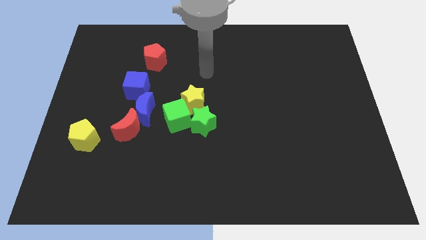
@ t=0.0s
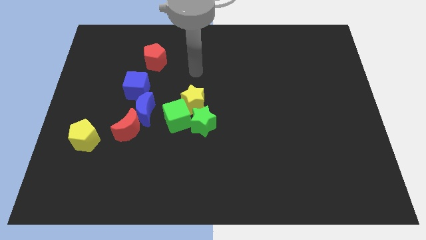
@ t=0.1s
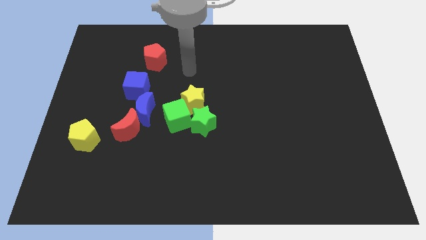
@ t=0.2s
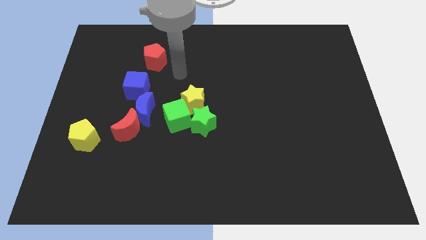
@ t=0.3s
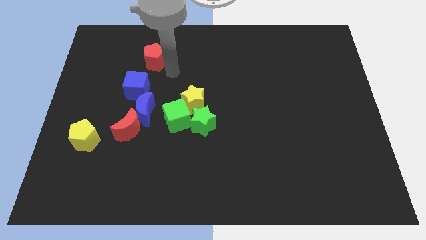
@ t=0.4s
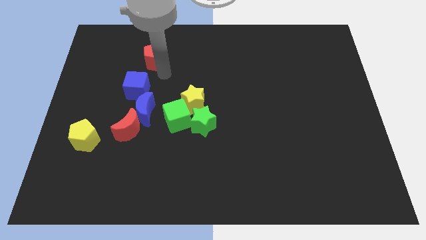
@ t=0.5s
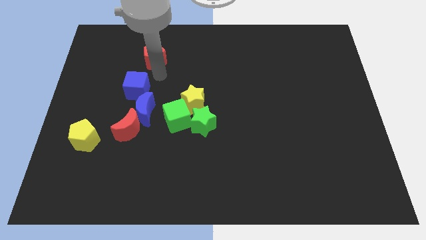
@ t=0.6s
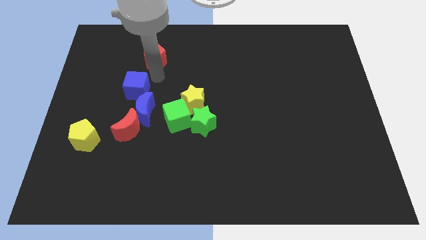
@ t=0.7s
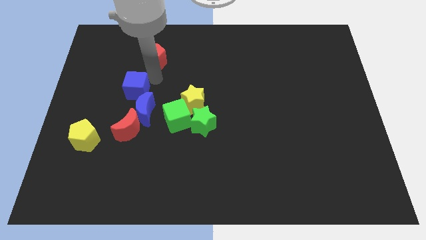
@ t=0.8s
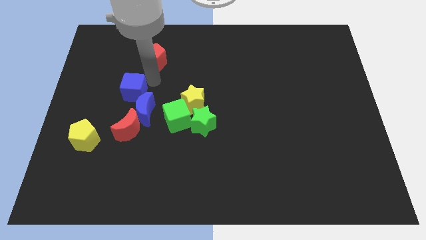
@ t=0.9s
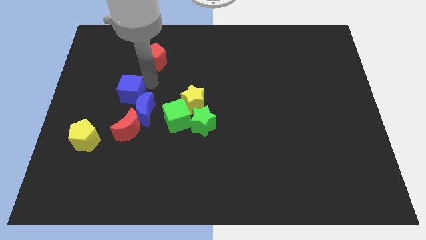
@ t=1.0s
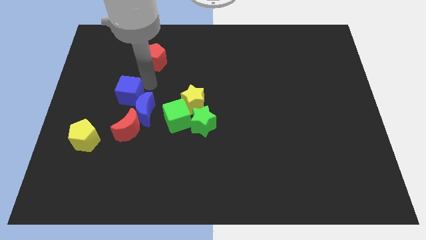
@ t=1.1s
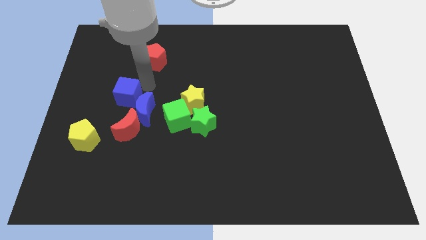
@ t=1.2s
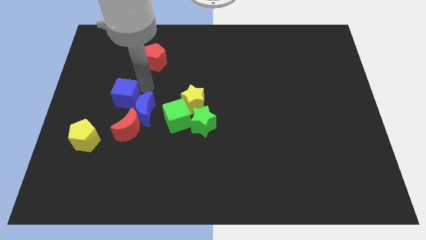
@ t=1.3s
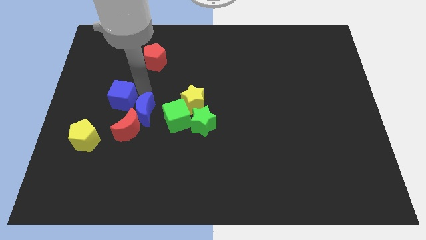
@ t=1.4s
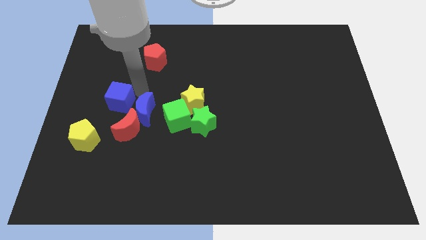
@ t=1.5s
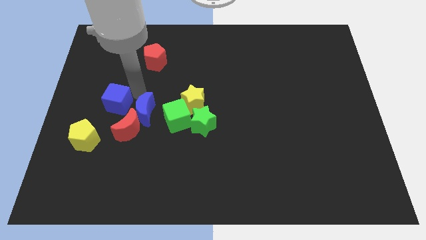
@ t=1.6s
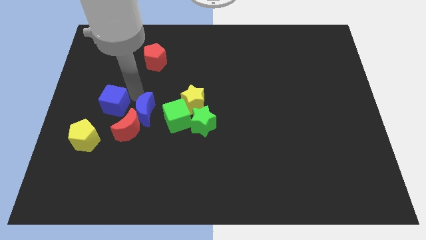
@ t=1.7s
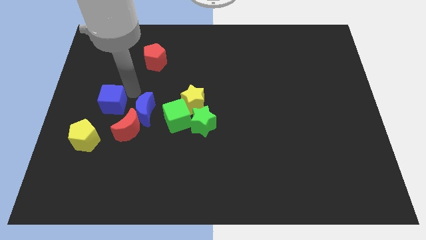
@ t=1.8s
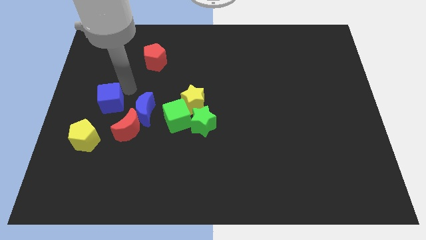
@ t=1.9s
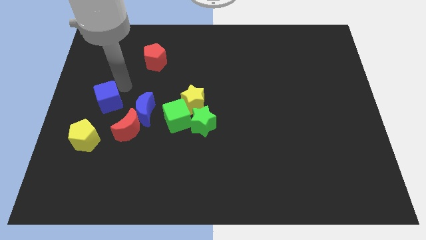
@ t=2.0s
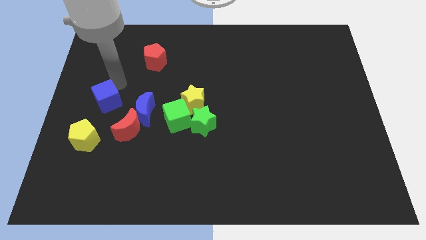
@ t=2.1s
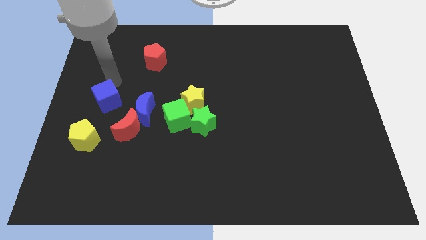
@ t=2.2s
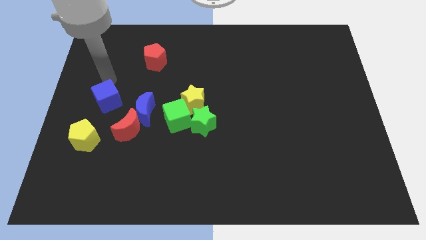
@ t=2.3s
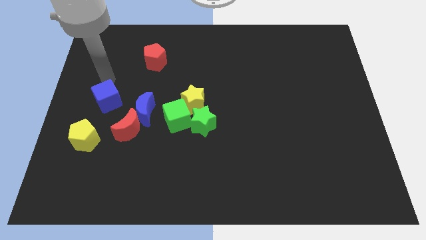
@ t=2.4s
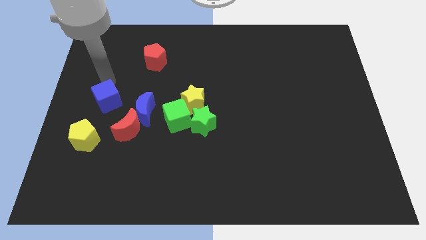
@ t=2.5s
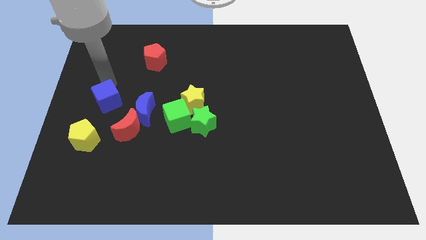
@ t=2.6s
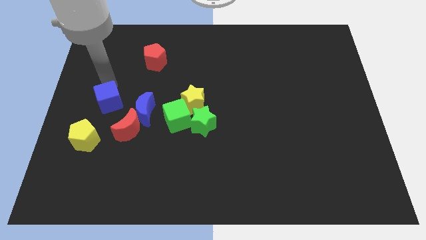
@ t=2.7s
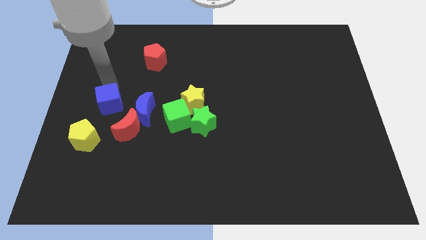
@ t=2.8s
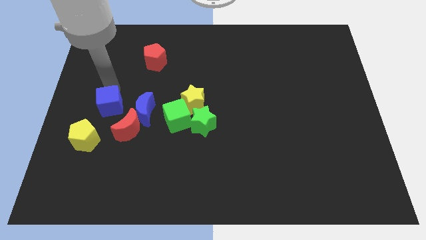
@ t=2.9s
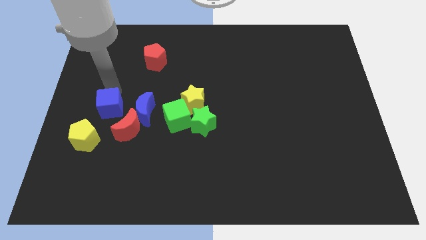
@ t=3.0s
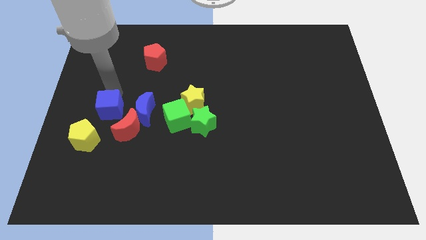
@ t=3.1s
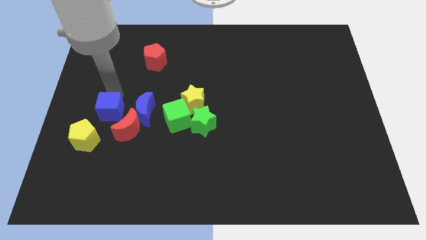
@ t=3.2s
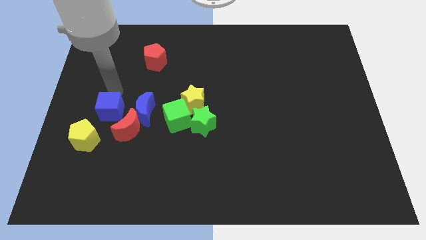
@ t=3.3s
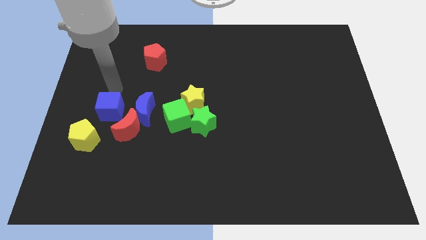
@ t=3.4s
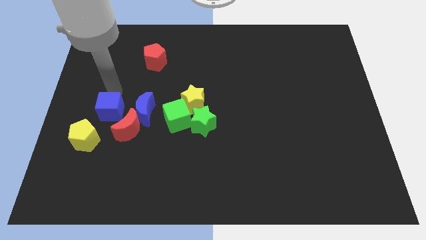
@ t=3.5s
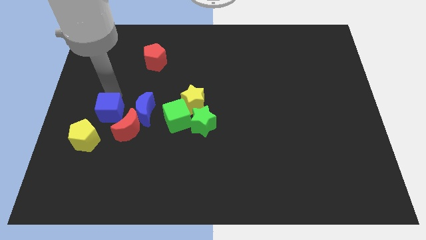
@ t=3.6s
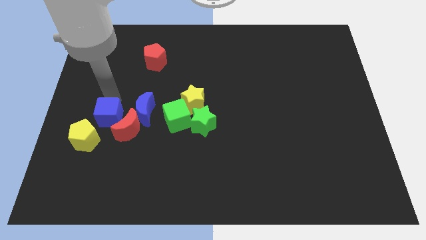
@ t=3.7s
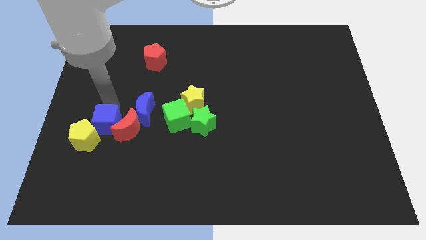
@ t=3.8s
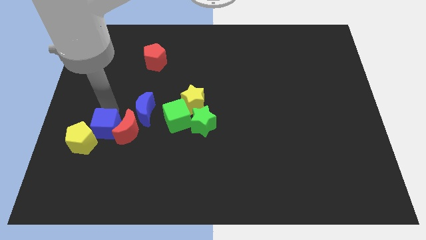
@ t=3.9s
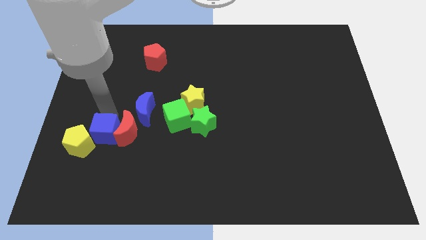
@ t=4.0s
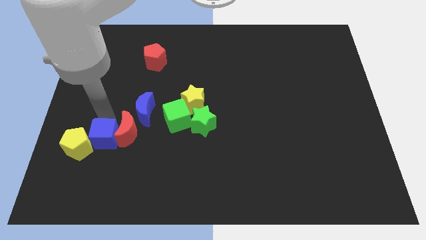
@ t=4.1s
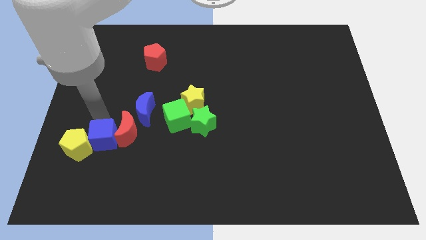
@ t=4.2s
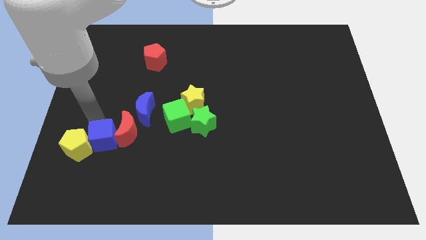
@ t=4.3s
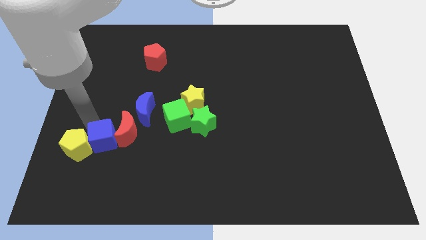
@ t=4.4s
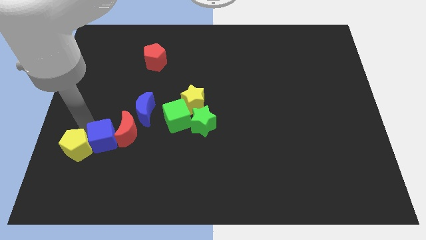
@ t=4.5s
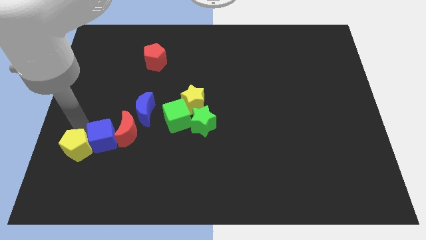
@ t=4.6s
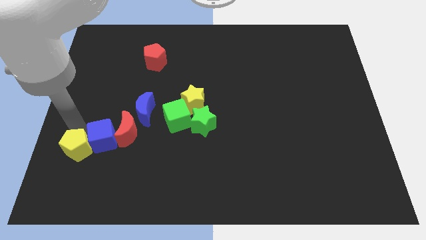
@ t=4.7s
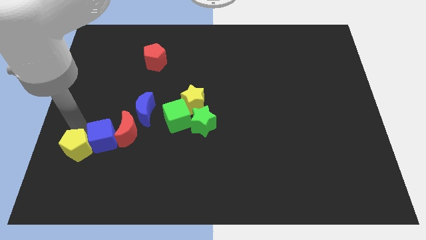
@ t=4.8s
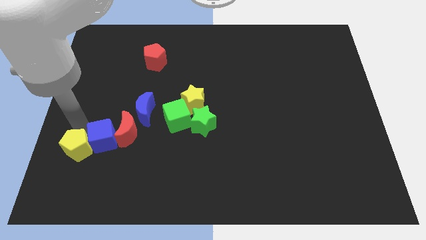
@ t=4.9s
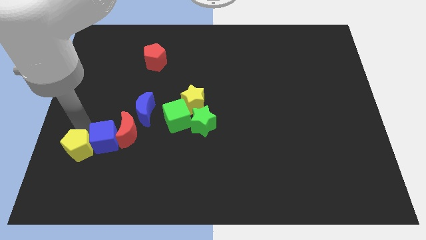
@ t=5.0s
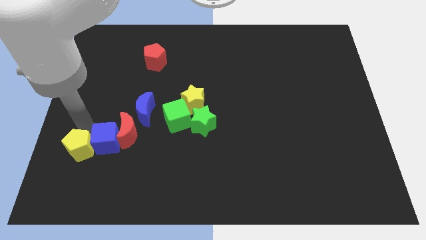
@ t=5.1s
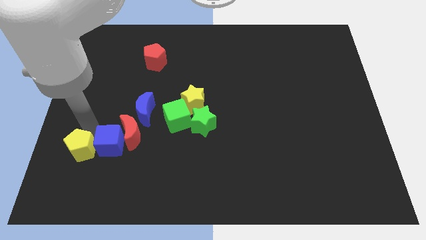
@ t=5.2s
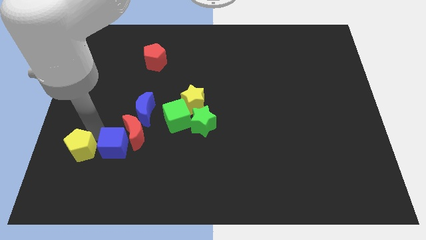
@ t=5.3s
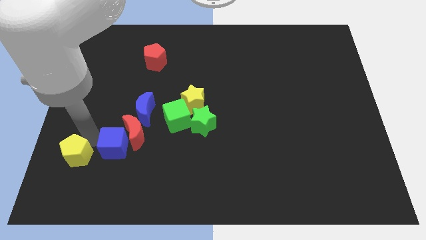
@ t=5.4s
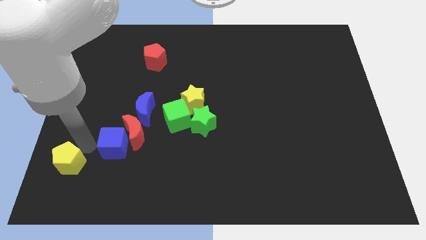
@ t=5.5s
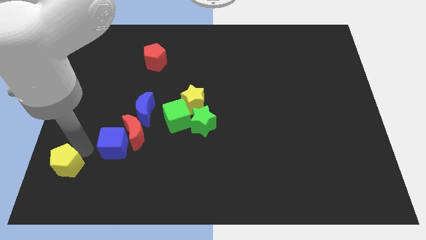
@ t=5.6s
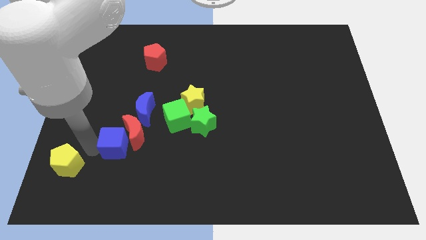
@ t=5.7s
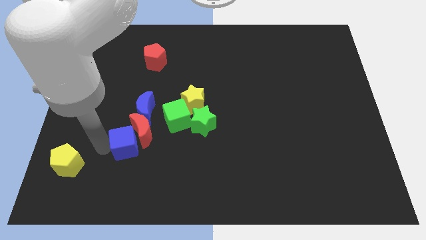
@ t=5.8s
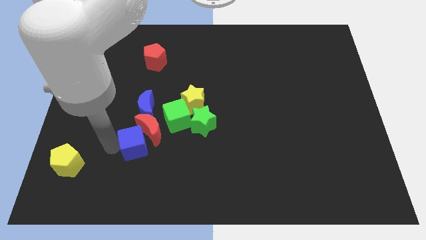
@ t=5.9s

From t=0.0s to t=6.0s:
slightly push the blue cube down and to the right

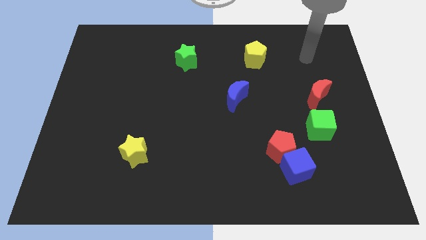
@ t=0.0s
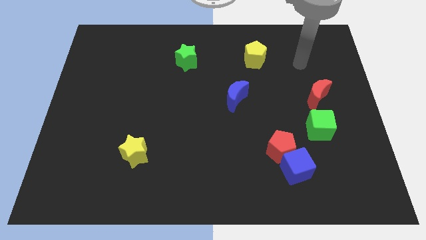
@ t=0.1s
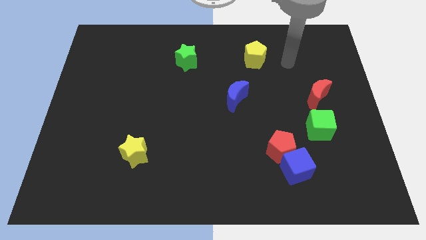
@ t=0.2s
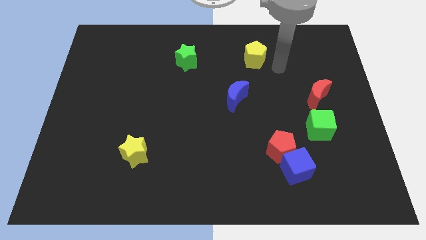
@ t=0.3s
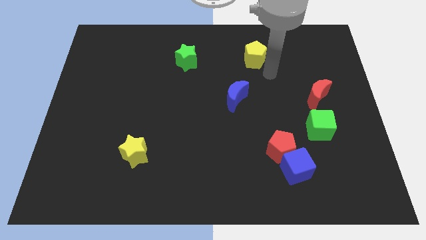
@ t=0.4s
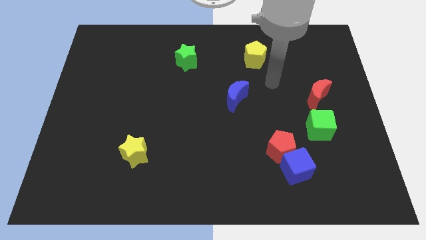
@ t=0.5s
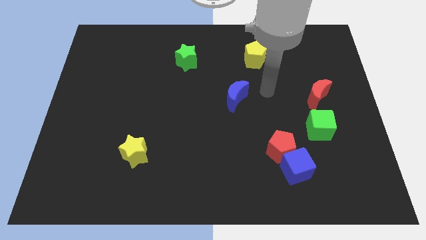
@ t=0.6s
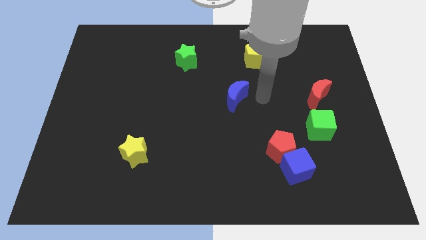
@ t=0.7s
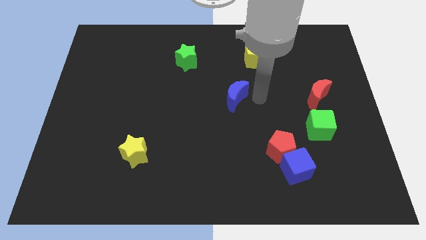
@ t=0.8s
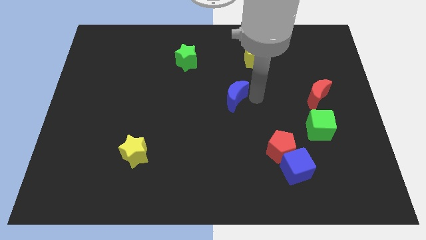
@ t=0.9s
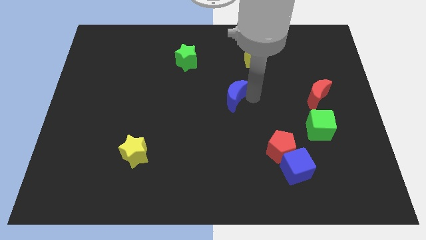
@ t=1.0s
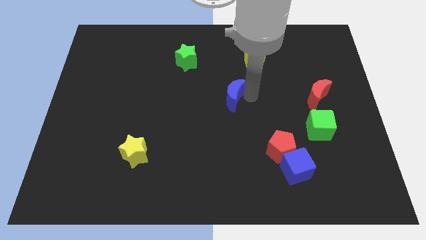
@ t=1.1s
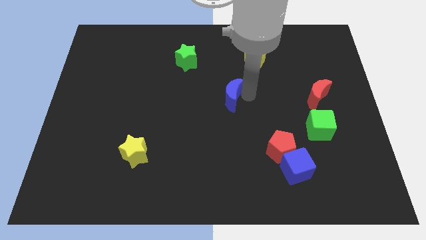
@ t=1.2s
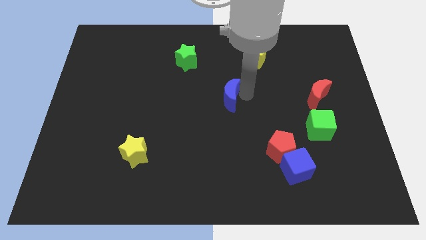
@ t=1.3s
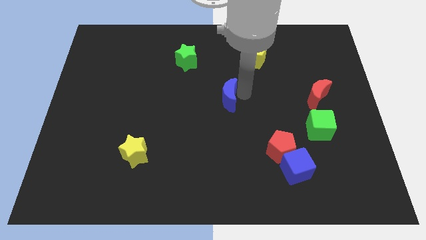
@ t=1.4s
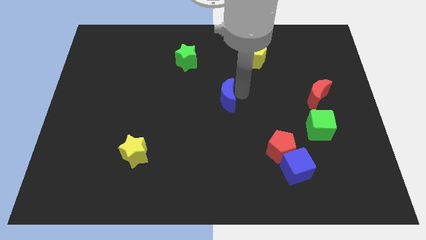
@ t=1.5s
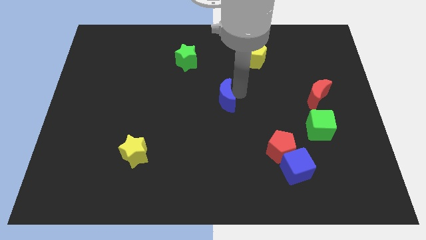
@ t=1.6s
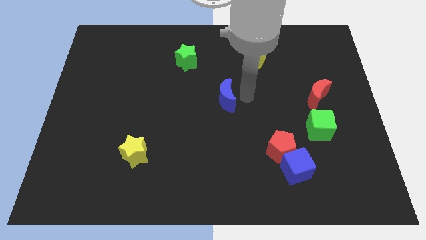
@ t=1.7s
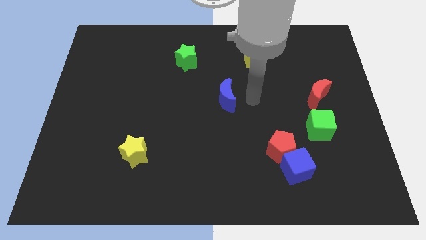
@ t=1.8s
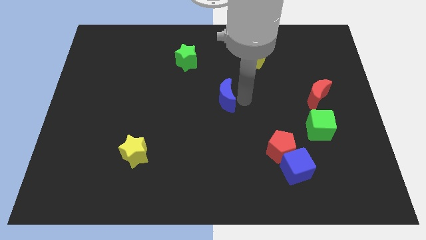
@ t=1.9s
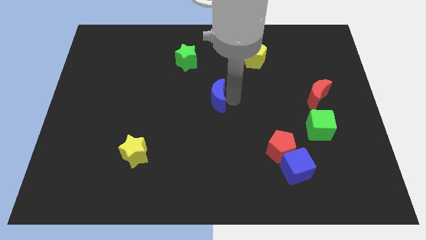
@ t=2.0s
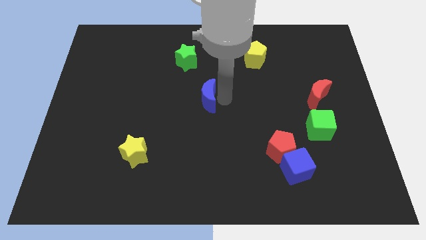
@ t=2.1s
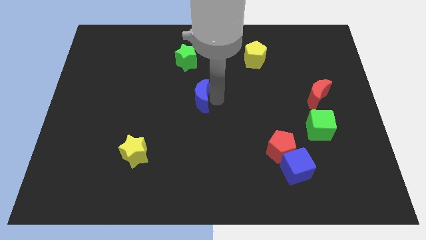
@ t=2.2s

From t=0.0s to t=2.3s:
push the blue moon left somewhat
